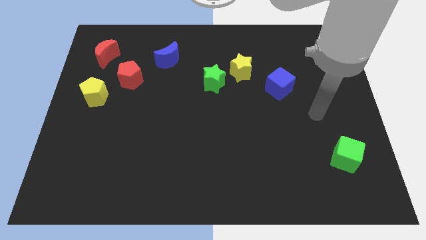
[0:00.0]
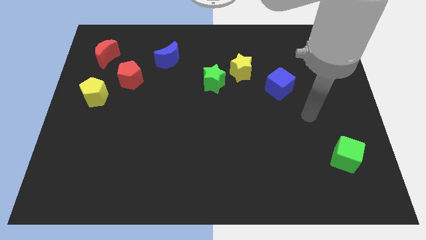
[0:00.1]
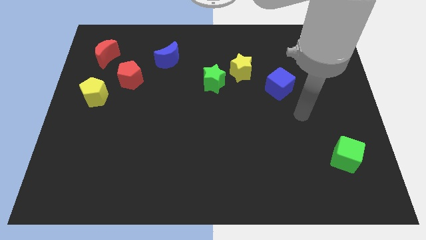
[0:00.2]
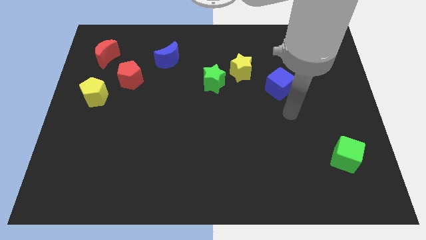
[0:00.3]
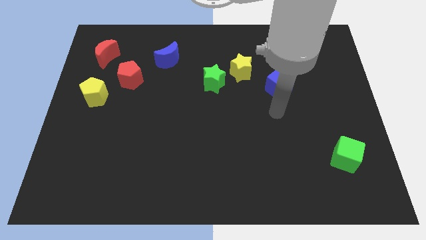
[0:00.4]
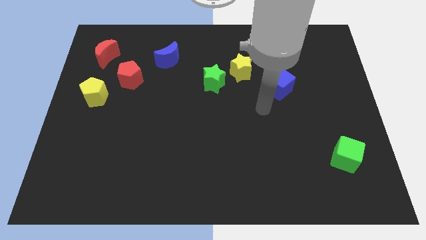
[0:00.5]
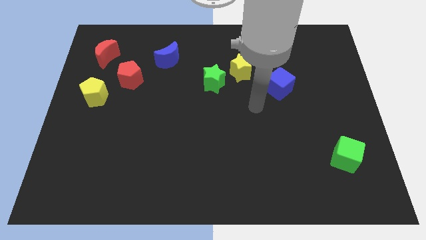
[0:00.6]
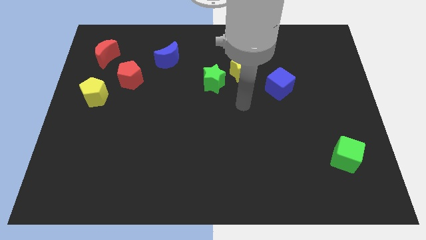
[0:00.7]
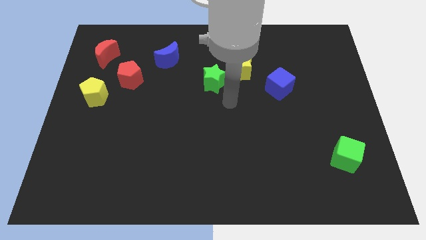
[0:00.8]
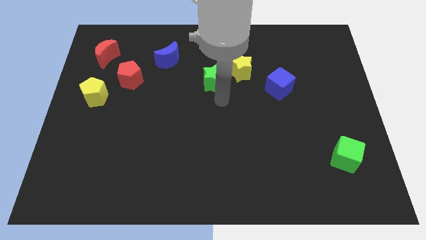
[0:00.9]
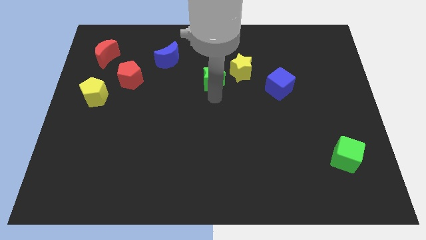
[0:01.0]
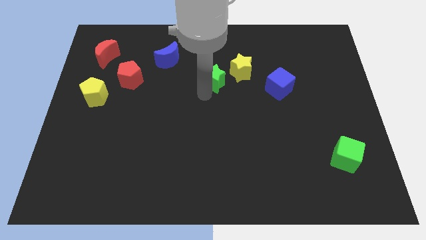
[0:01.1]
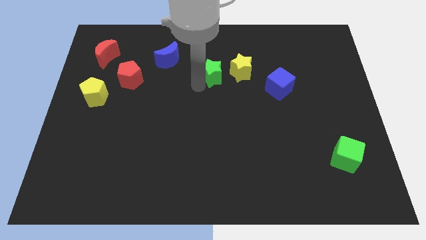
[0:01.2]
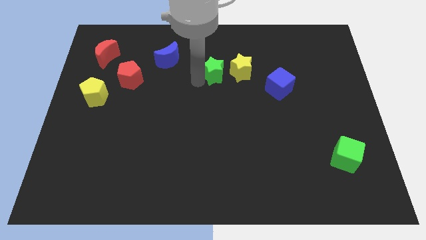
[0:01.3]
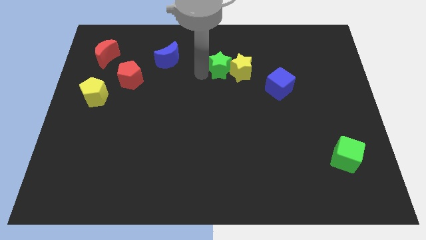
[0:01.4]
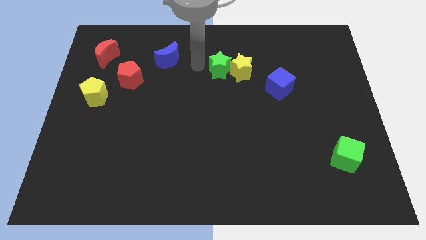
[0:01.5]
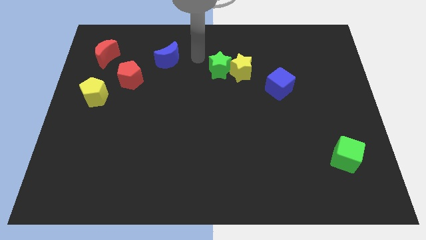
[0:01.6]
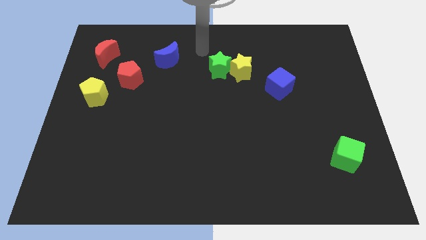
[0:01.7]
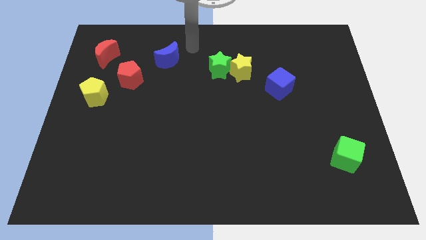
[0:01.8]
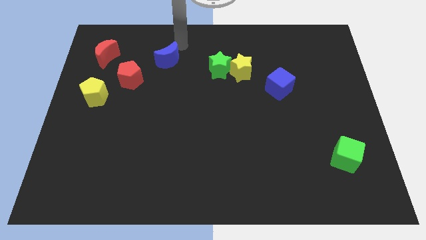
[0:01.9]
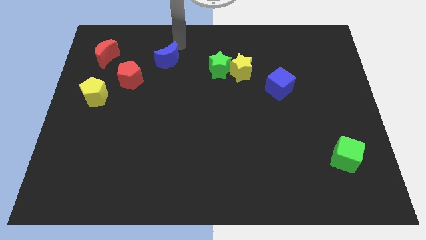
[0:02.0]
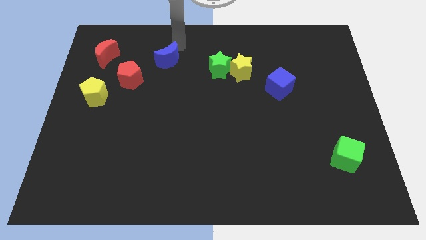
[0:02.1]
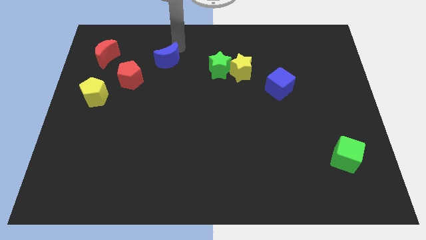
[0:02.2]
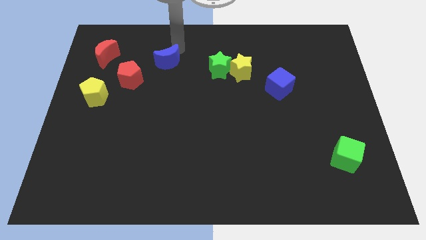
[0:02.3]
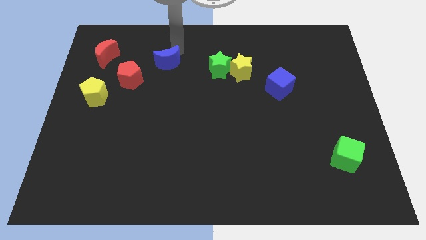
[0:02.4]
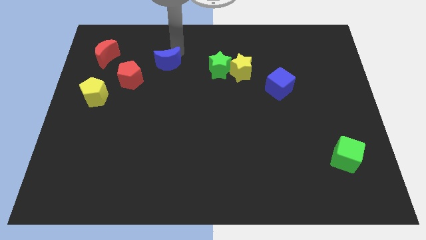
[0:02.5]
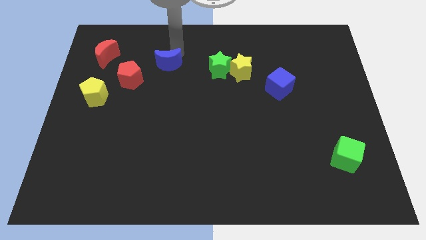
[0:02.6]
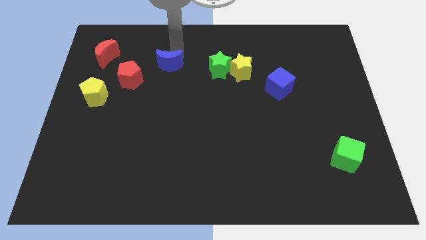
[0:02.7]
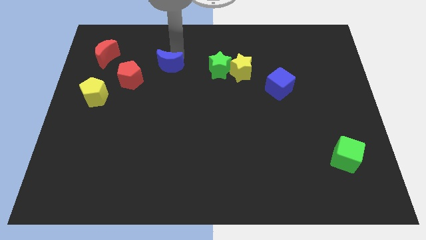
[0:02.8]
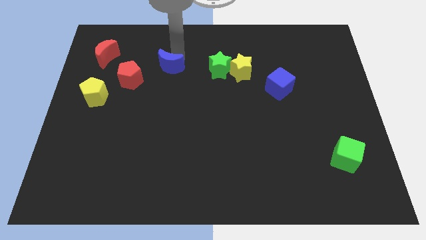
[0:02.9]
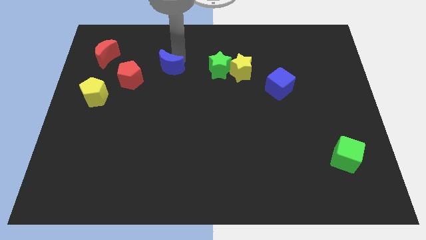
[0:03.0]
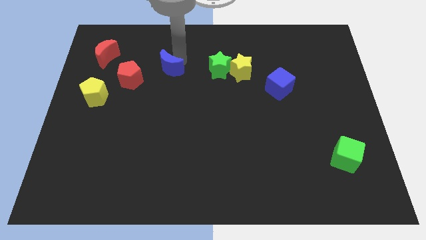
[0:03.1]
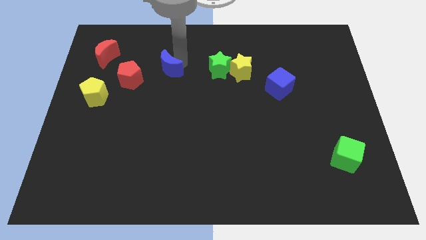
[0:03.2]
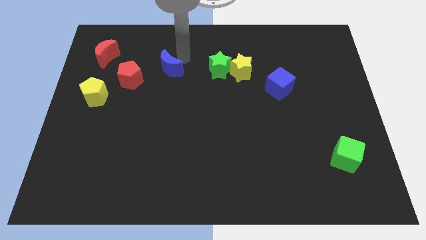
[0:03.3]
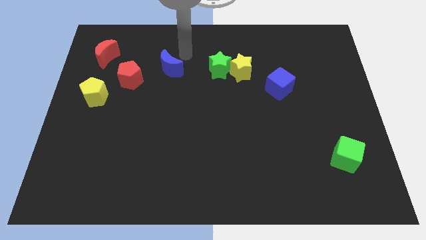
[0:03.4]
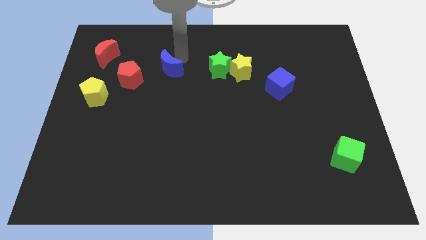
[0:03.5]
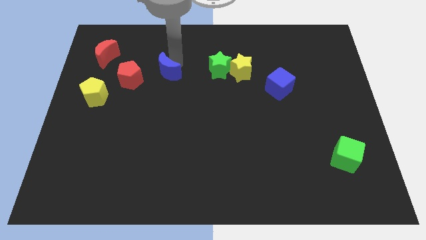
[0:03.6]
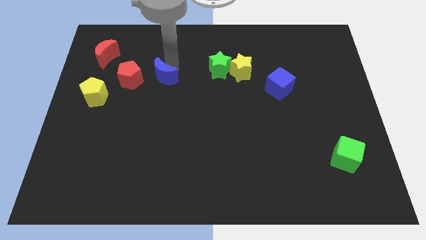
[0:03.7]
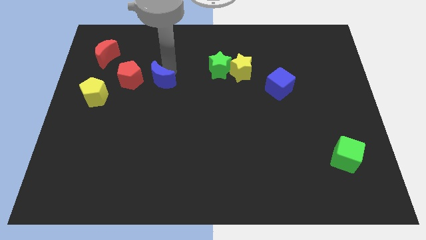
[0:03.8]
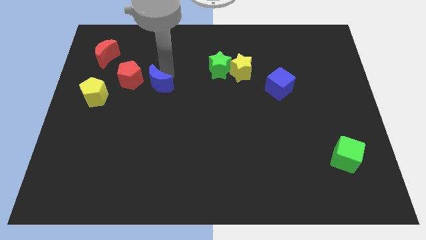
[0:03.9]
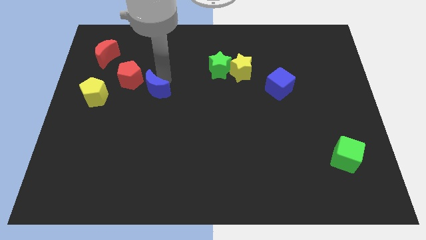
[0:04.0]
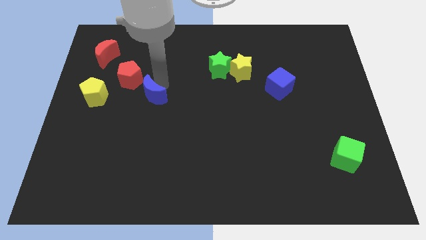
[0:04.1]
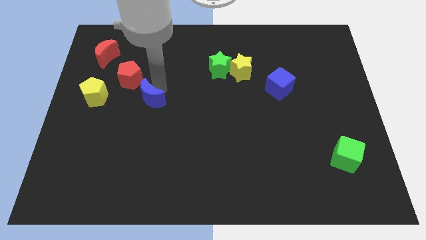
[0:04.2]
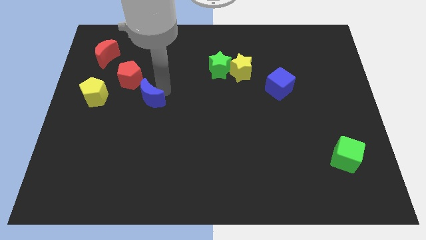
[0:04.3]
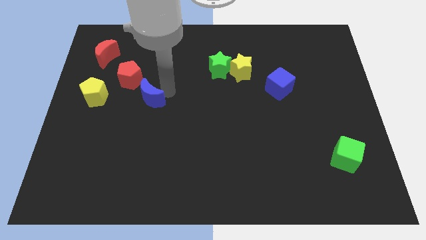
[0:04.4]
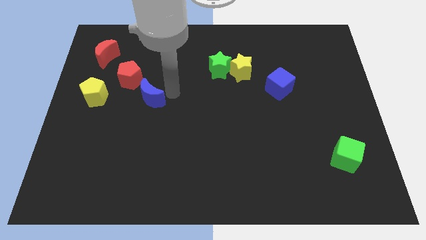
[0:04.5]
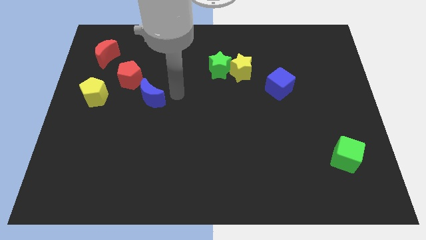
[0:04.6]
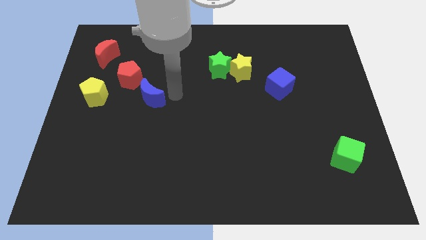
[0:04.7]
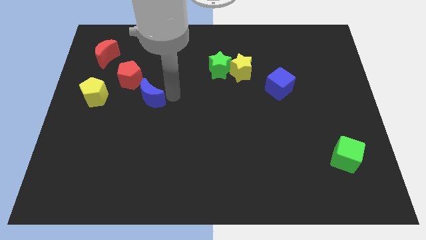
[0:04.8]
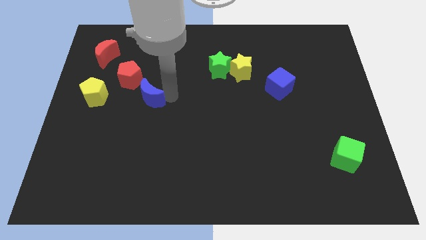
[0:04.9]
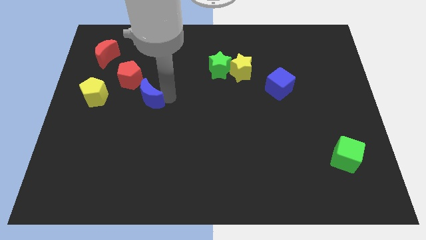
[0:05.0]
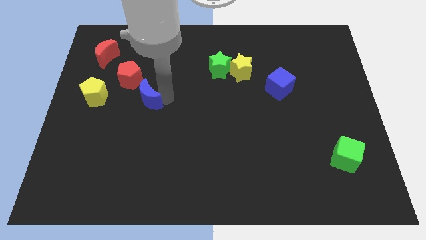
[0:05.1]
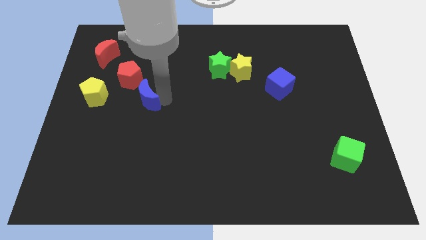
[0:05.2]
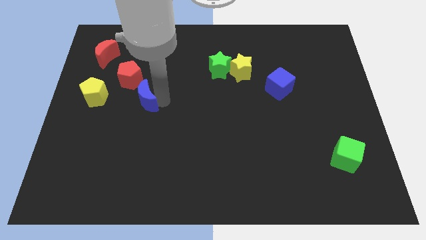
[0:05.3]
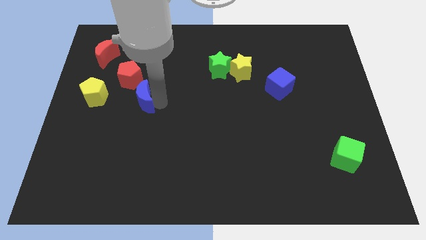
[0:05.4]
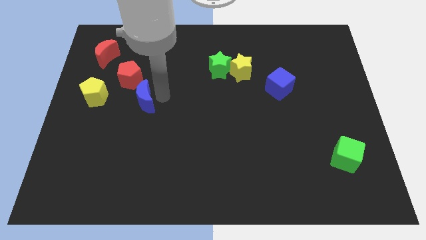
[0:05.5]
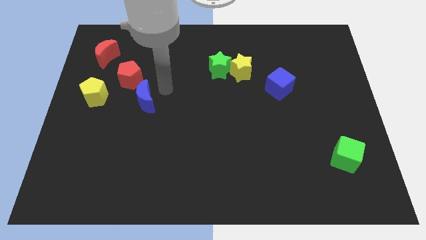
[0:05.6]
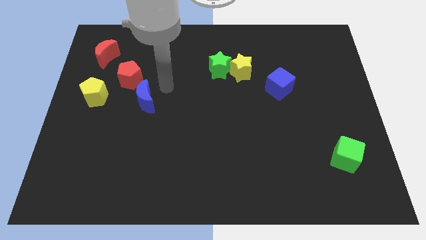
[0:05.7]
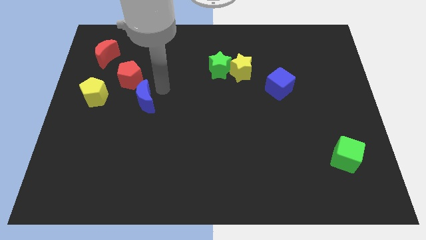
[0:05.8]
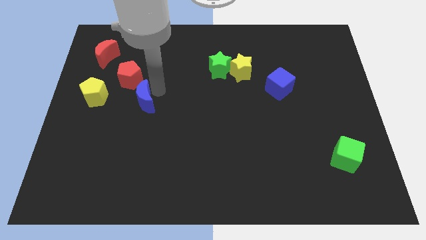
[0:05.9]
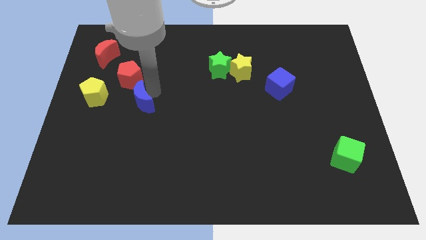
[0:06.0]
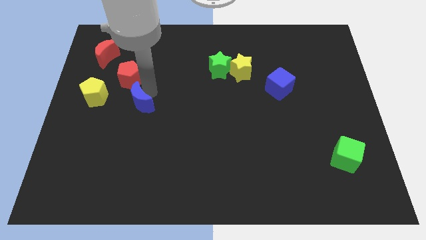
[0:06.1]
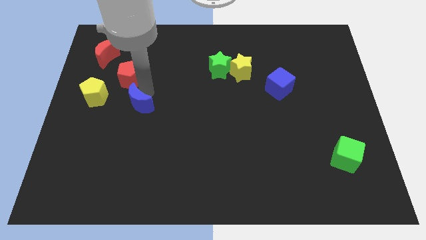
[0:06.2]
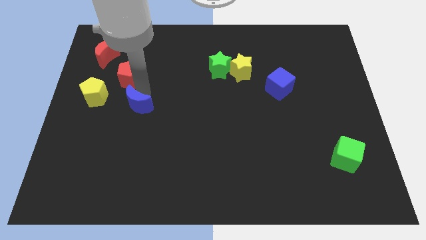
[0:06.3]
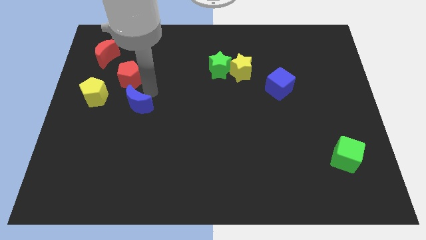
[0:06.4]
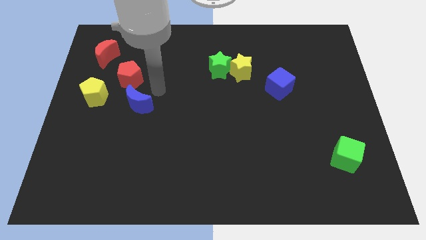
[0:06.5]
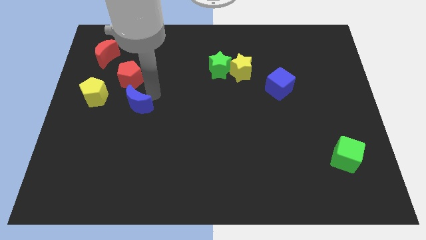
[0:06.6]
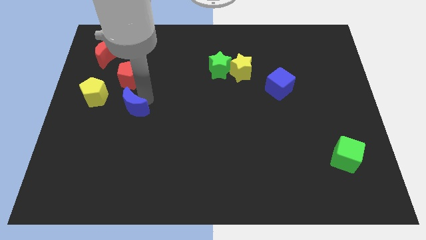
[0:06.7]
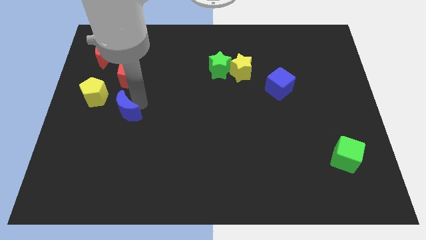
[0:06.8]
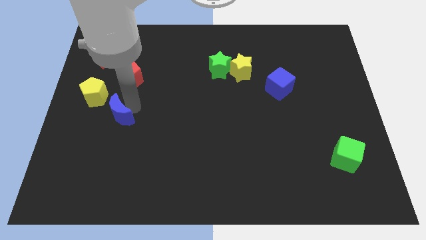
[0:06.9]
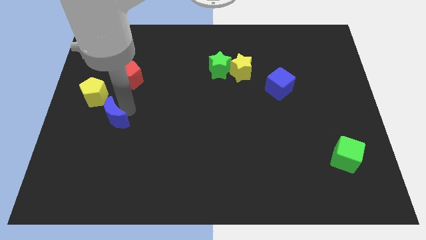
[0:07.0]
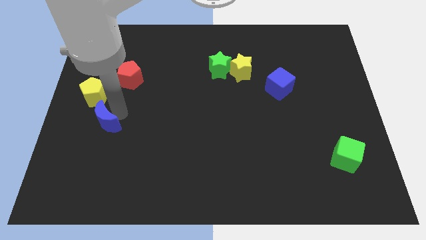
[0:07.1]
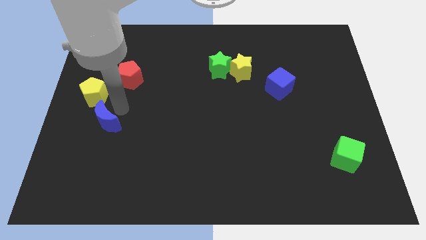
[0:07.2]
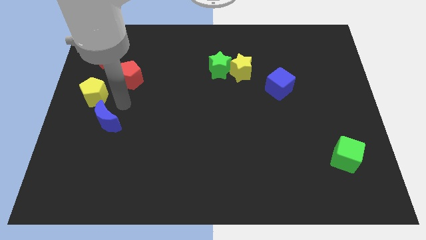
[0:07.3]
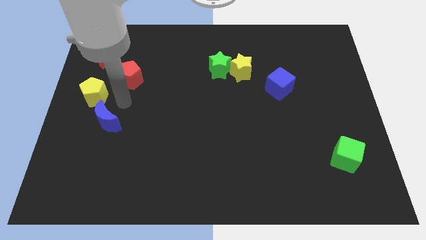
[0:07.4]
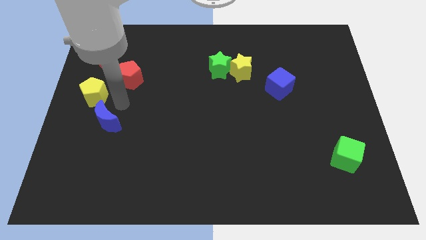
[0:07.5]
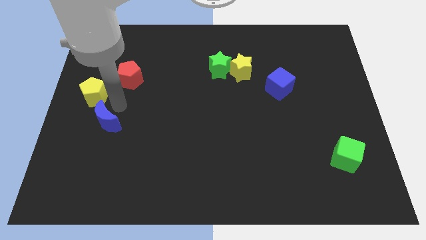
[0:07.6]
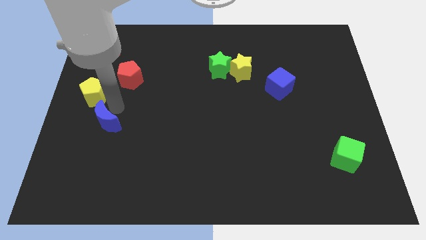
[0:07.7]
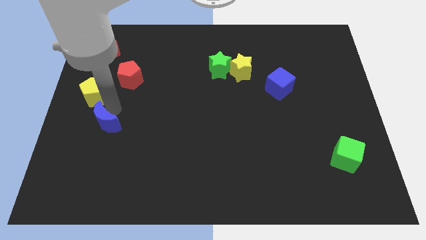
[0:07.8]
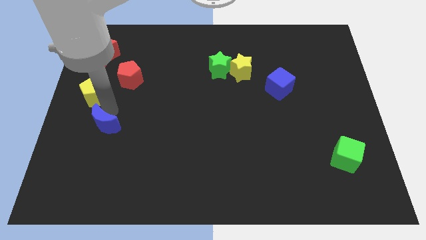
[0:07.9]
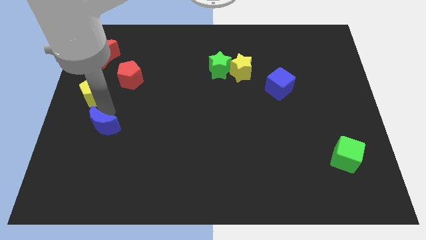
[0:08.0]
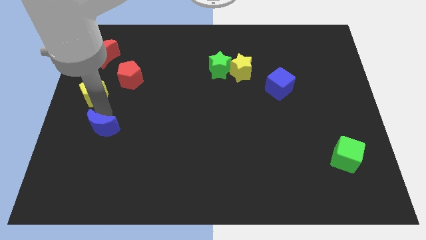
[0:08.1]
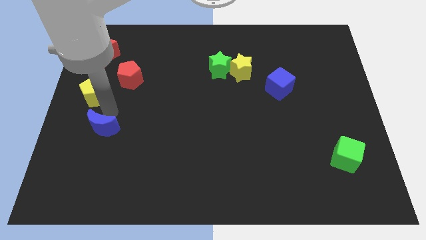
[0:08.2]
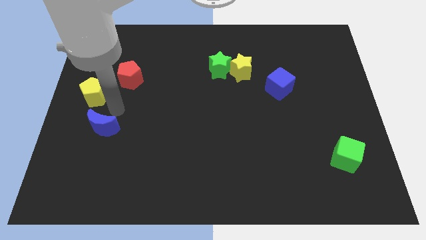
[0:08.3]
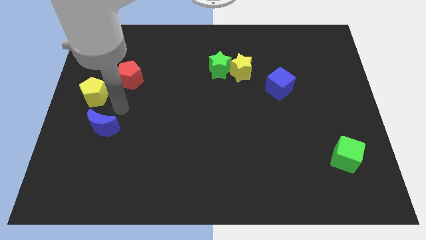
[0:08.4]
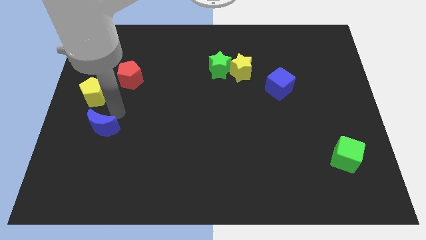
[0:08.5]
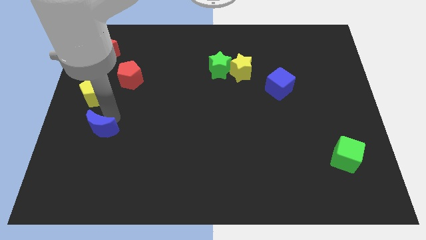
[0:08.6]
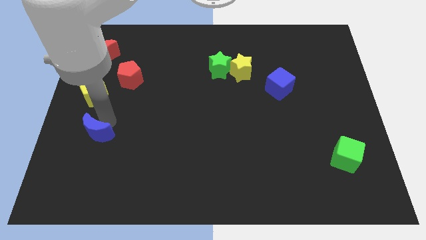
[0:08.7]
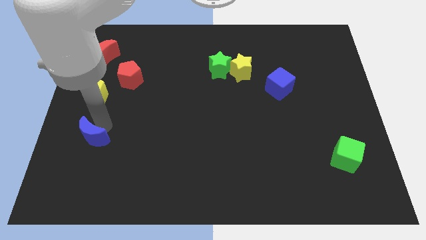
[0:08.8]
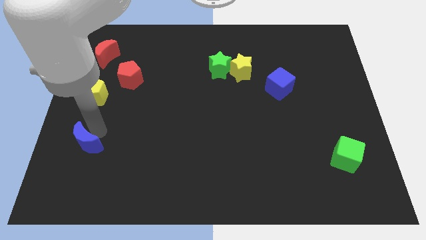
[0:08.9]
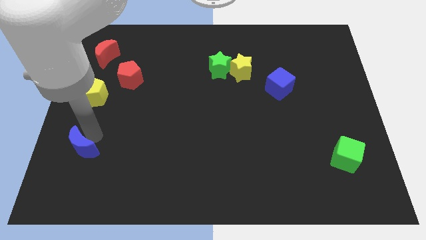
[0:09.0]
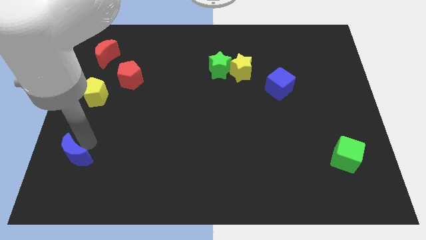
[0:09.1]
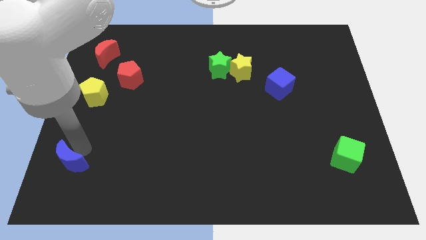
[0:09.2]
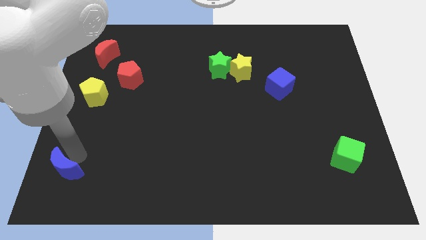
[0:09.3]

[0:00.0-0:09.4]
push the blue moon to the bottom left
